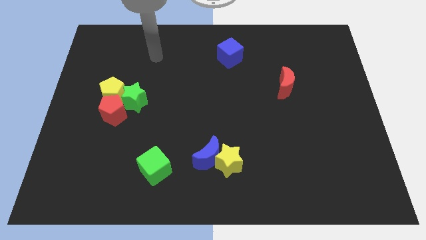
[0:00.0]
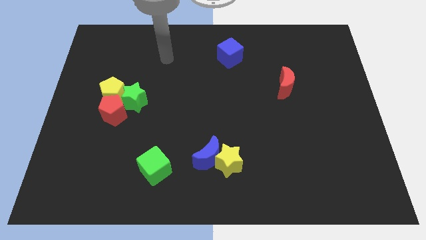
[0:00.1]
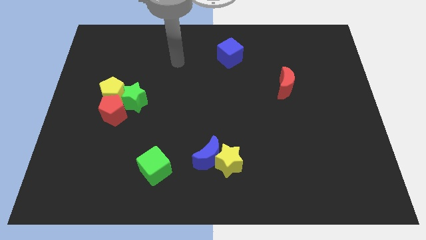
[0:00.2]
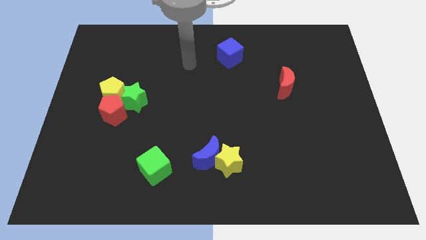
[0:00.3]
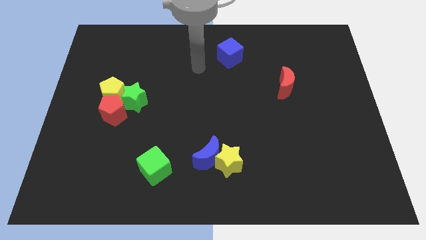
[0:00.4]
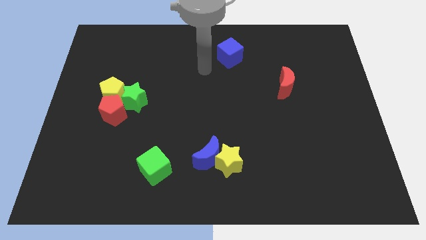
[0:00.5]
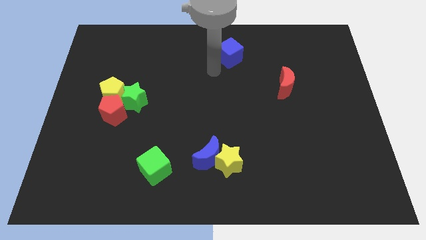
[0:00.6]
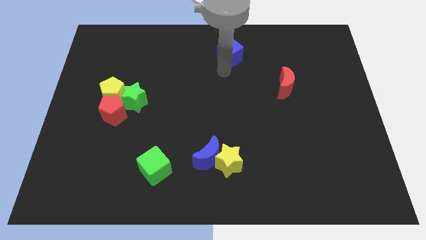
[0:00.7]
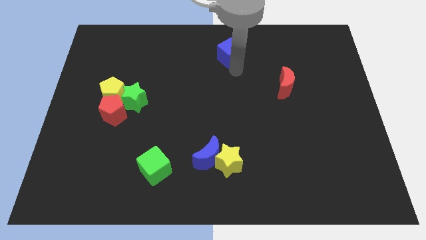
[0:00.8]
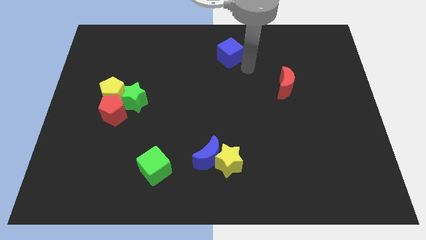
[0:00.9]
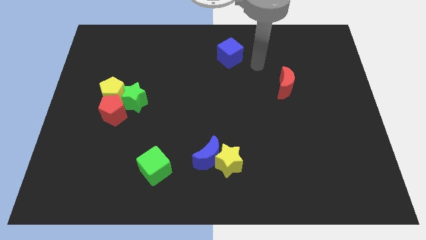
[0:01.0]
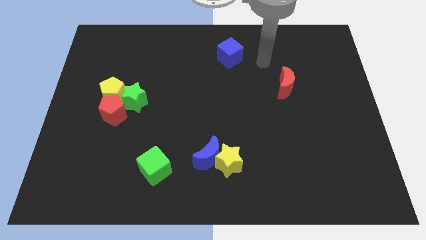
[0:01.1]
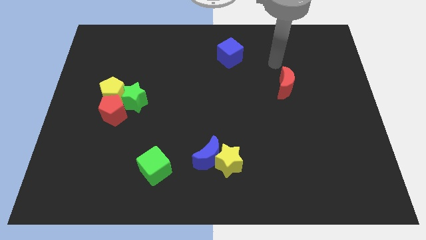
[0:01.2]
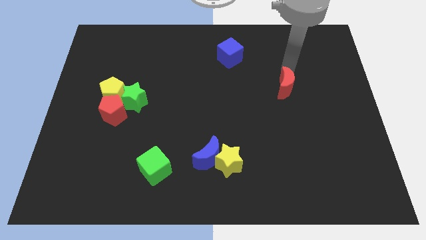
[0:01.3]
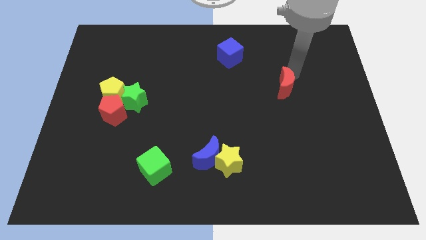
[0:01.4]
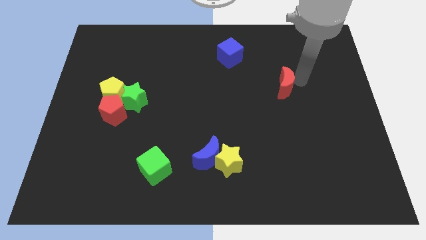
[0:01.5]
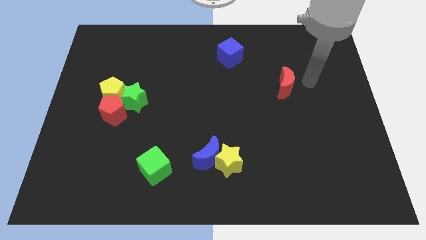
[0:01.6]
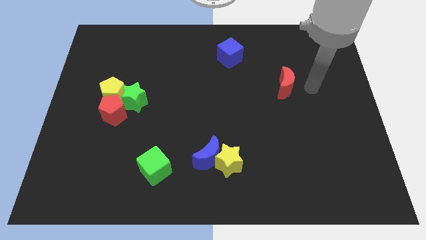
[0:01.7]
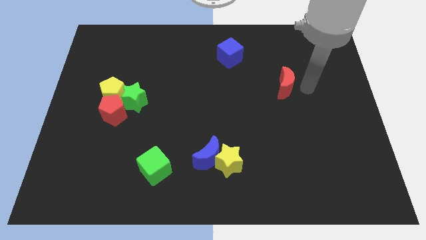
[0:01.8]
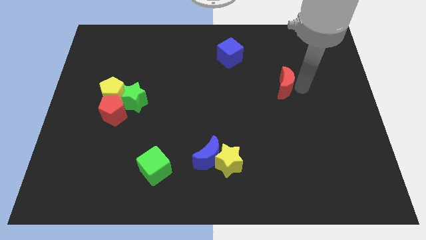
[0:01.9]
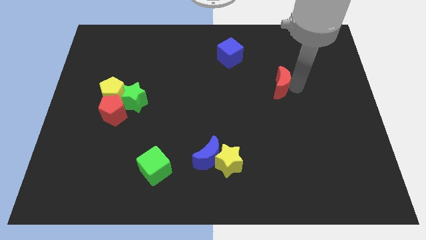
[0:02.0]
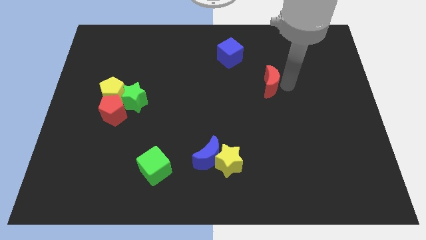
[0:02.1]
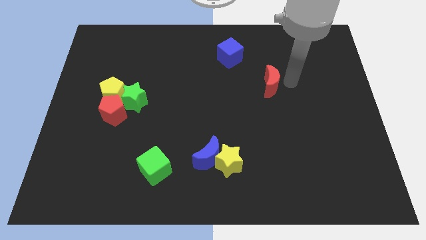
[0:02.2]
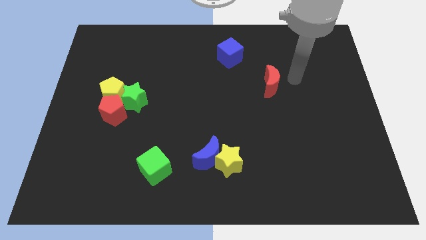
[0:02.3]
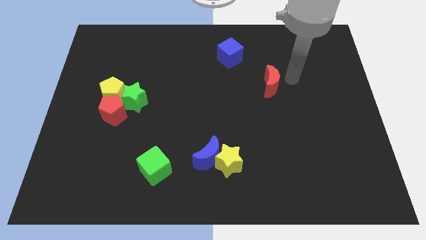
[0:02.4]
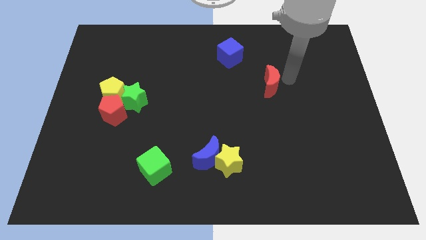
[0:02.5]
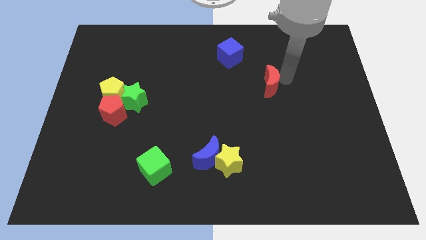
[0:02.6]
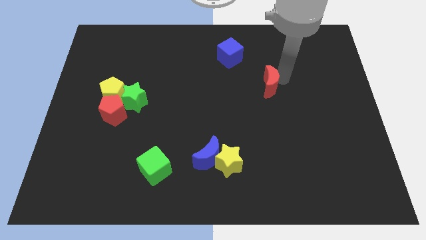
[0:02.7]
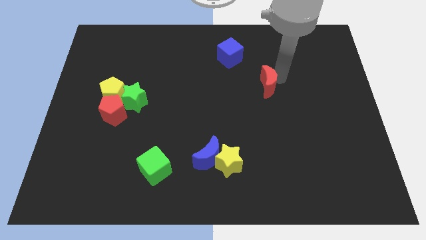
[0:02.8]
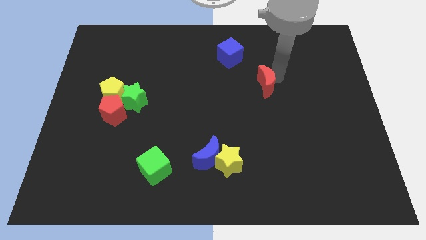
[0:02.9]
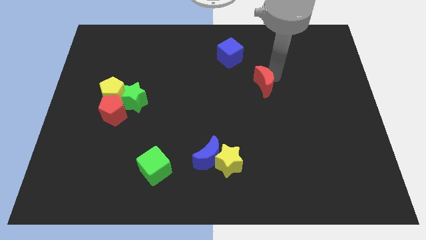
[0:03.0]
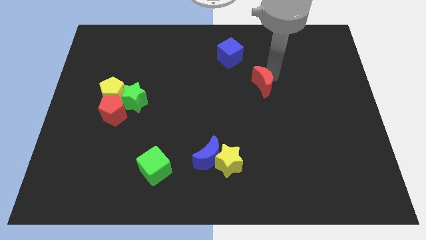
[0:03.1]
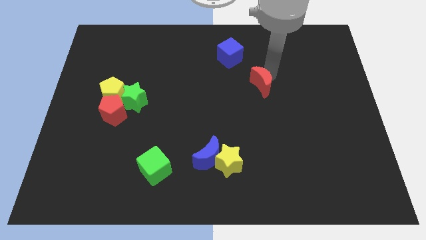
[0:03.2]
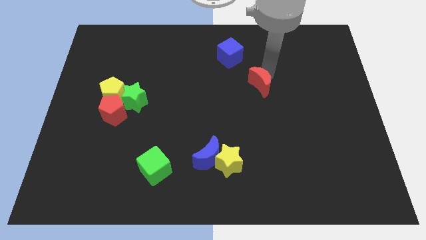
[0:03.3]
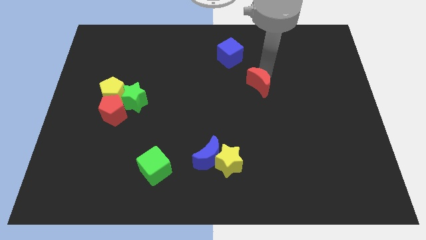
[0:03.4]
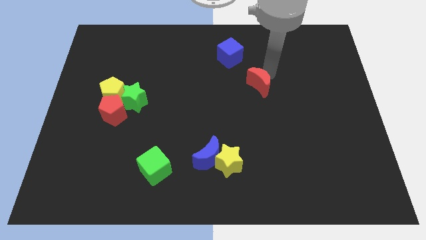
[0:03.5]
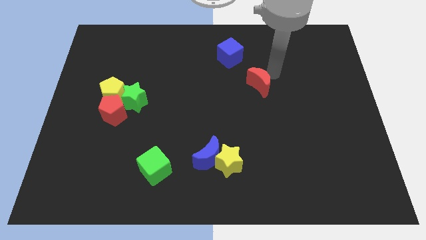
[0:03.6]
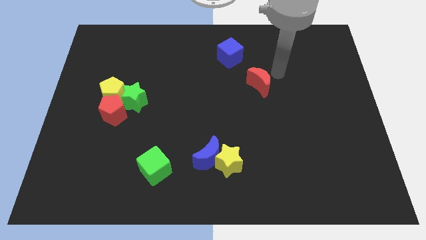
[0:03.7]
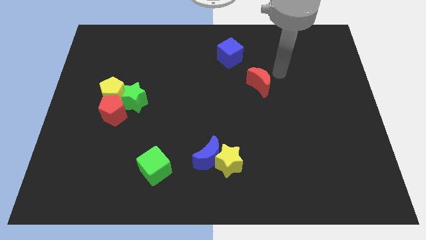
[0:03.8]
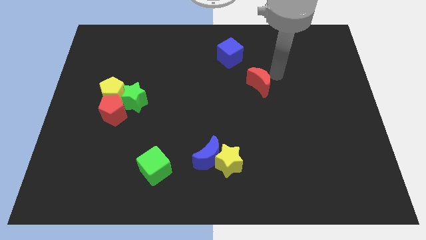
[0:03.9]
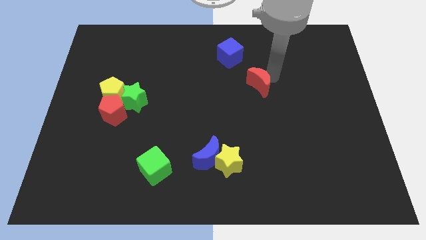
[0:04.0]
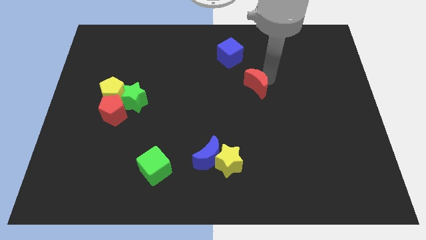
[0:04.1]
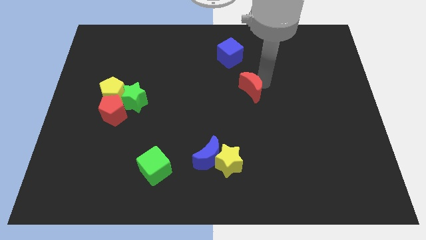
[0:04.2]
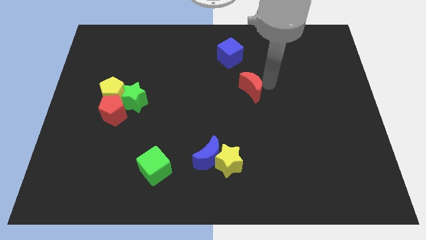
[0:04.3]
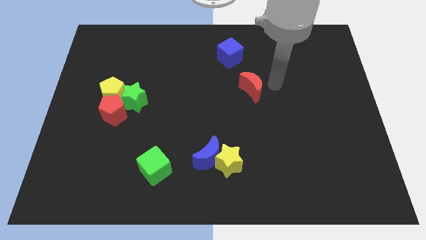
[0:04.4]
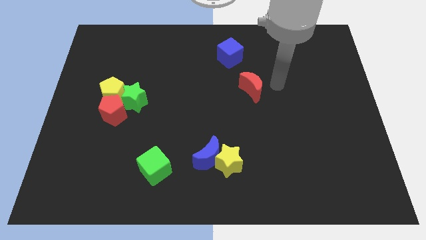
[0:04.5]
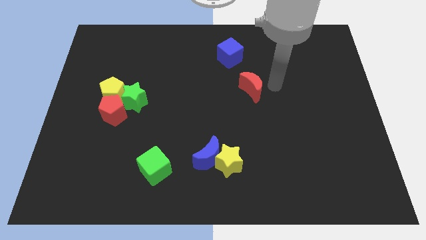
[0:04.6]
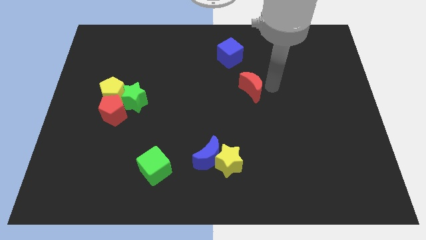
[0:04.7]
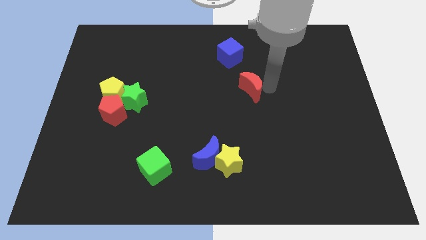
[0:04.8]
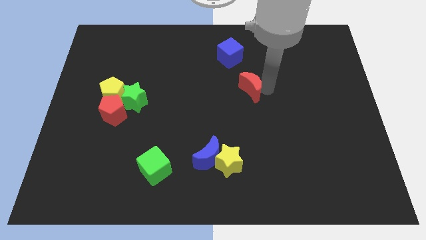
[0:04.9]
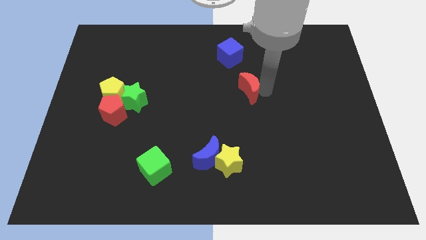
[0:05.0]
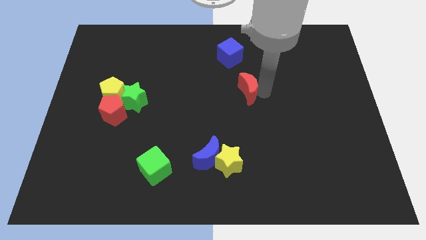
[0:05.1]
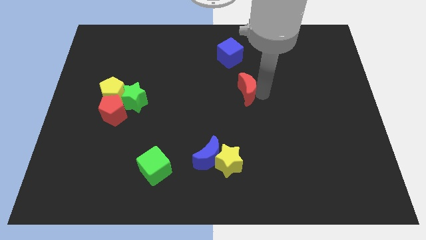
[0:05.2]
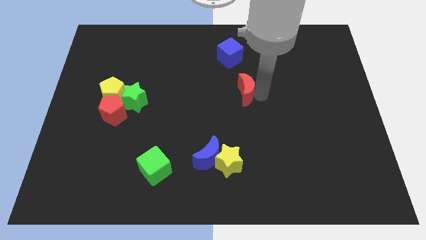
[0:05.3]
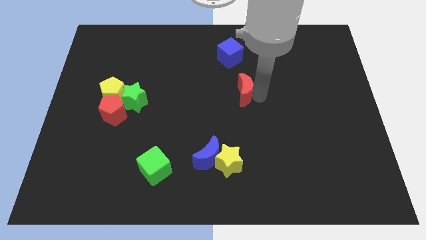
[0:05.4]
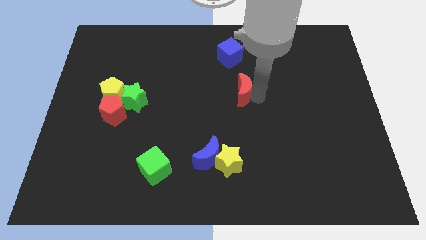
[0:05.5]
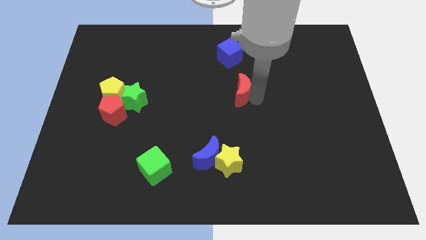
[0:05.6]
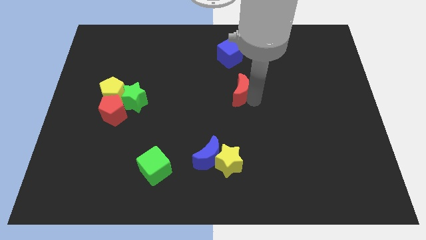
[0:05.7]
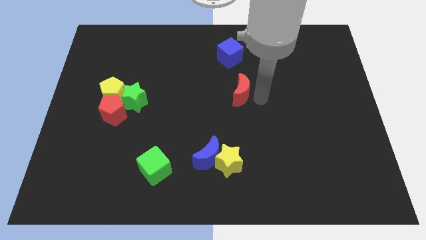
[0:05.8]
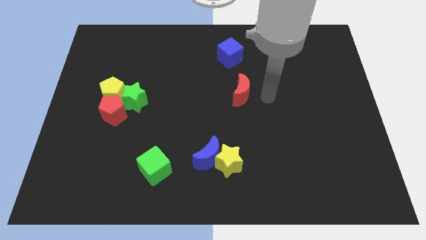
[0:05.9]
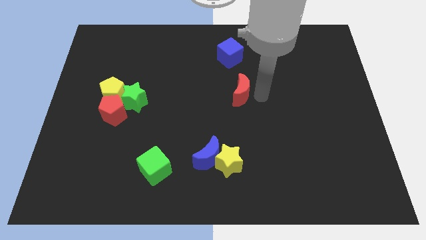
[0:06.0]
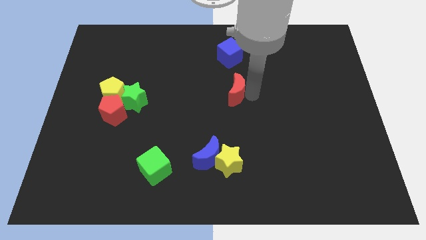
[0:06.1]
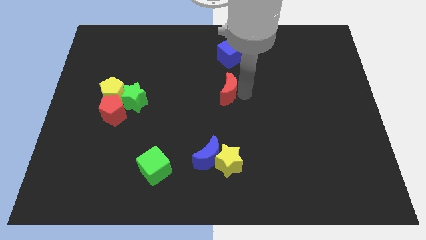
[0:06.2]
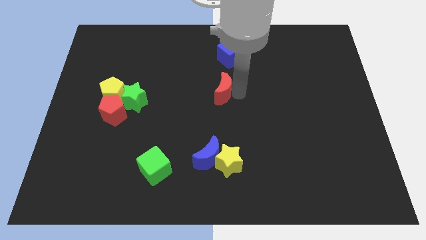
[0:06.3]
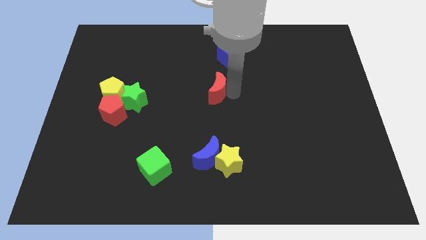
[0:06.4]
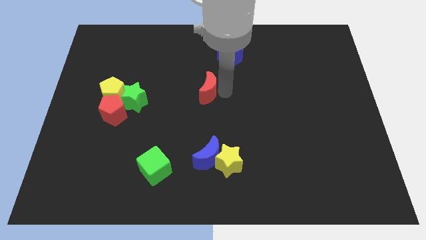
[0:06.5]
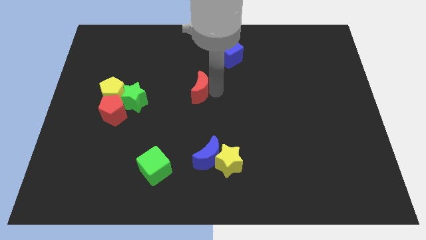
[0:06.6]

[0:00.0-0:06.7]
push the red moon to the left

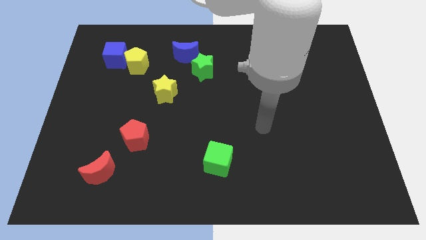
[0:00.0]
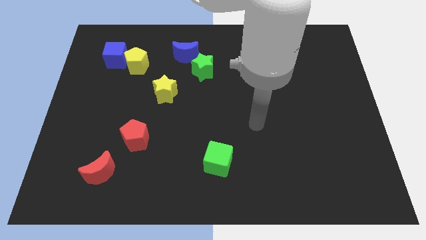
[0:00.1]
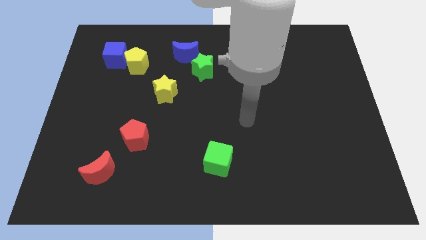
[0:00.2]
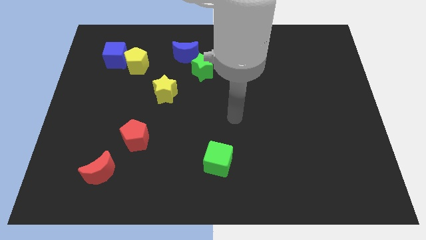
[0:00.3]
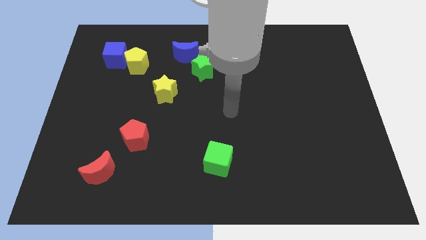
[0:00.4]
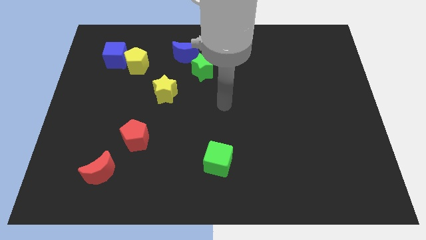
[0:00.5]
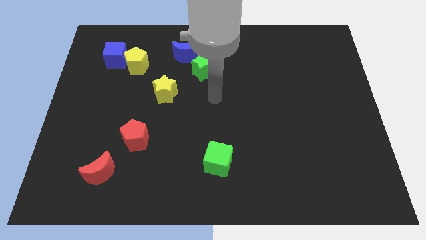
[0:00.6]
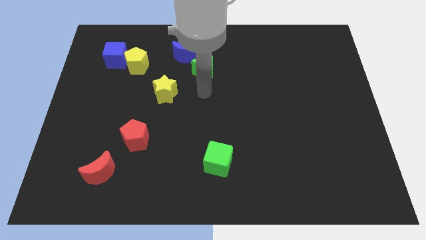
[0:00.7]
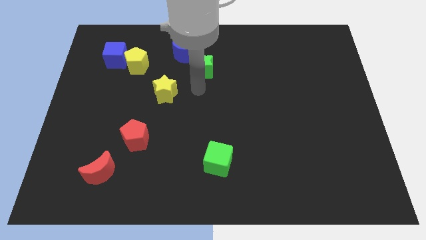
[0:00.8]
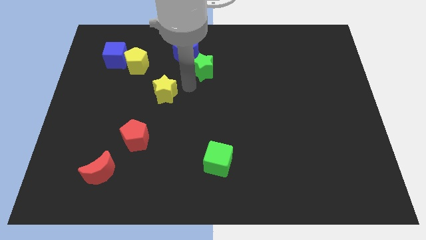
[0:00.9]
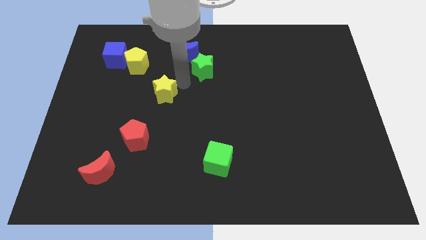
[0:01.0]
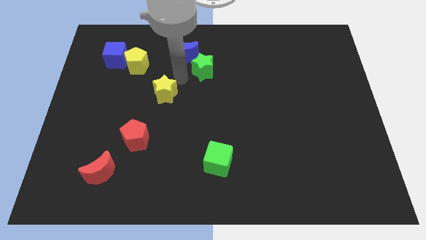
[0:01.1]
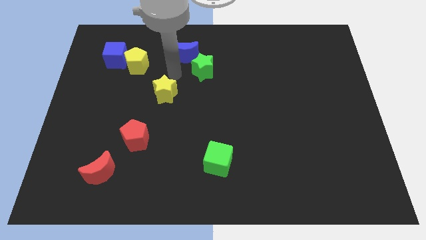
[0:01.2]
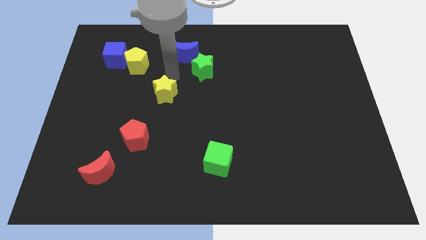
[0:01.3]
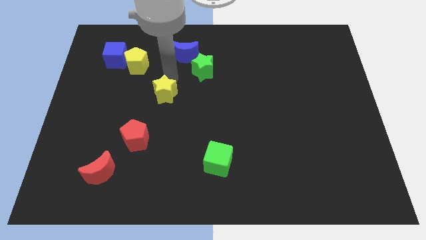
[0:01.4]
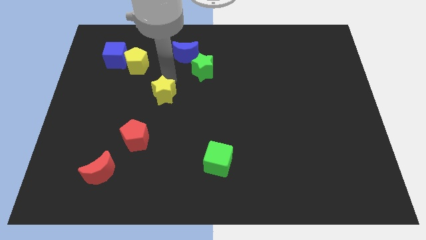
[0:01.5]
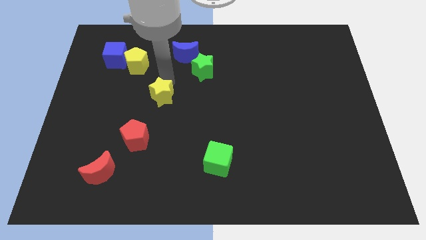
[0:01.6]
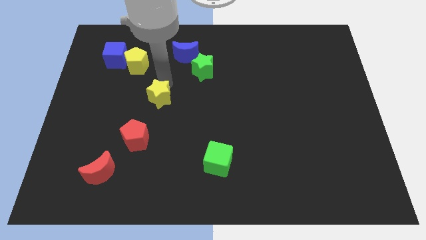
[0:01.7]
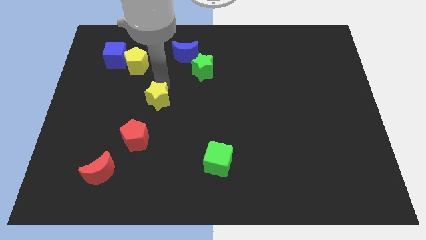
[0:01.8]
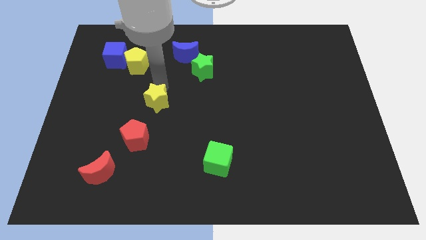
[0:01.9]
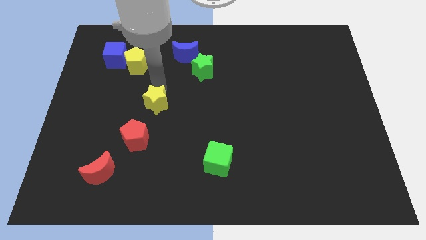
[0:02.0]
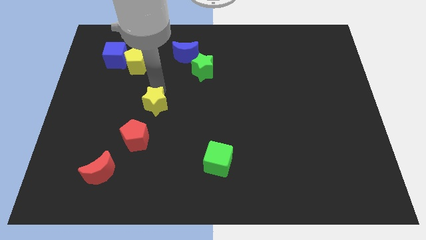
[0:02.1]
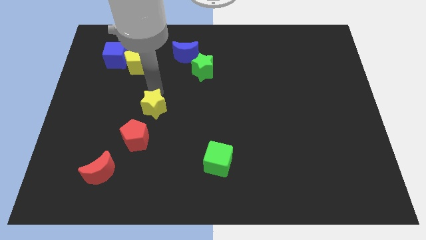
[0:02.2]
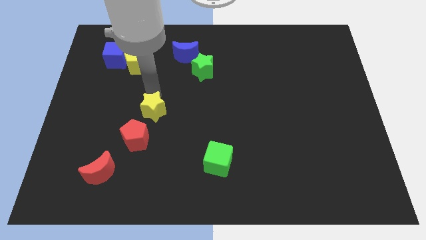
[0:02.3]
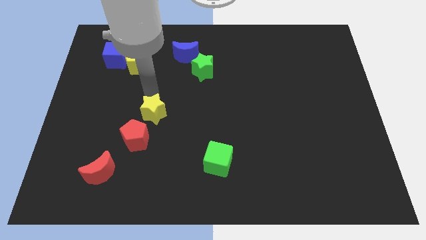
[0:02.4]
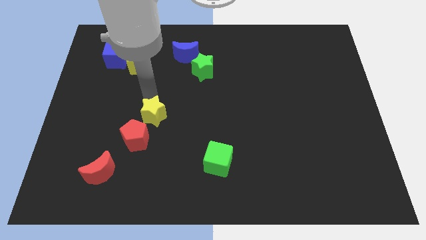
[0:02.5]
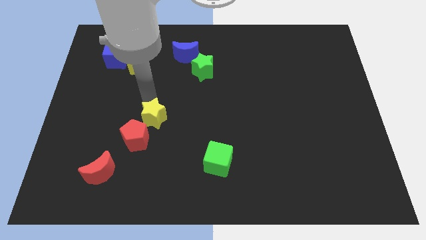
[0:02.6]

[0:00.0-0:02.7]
move the yellow star somewhat down
